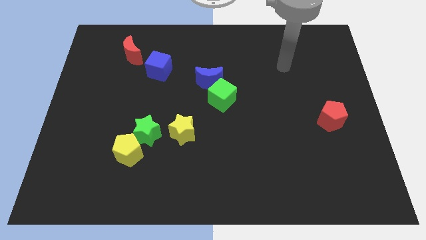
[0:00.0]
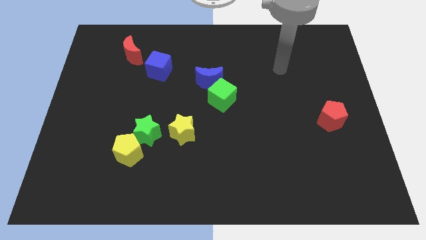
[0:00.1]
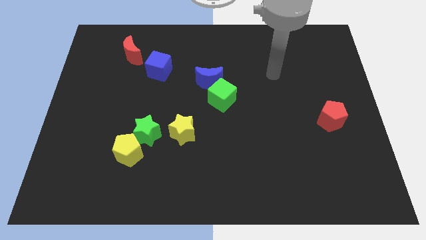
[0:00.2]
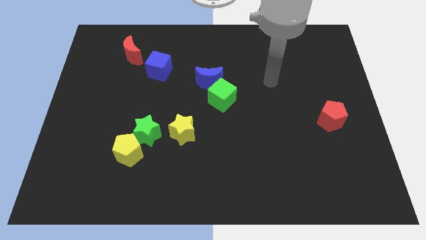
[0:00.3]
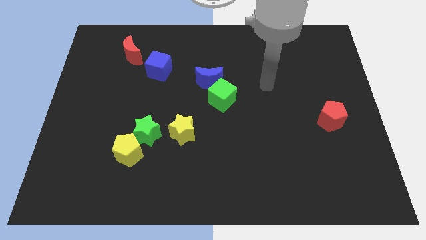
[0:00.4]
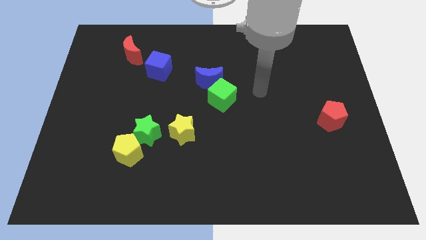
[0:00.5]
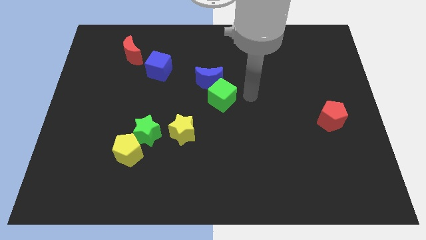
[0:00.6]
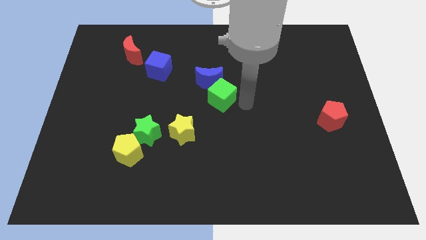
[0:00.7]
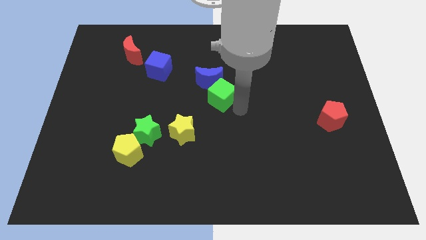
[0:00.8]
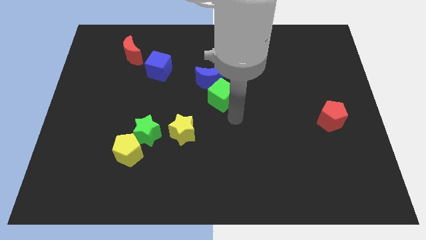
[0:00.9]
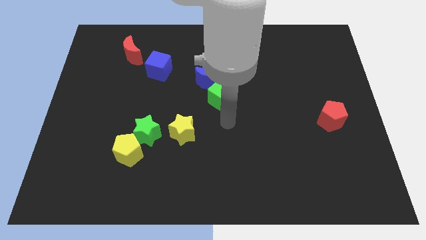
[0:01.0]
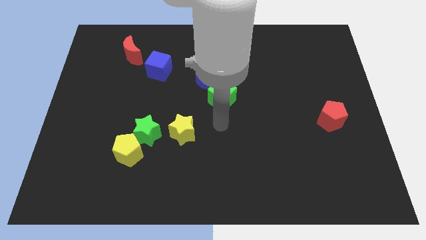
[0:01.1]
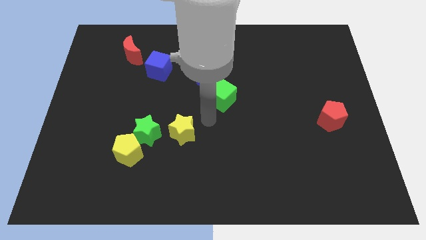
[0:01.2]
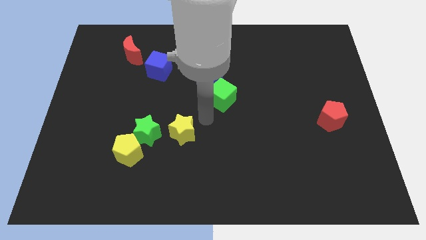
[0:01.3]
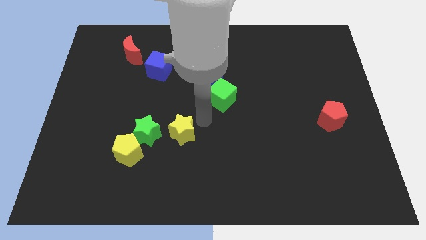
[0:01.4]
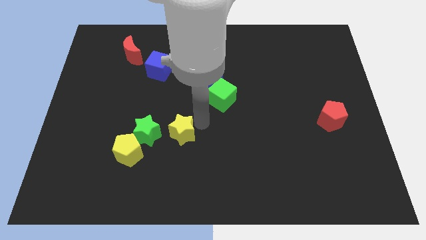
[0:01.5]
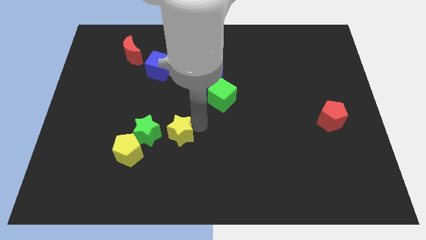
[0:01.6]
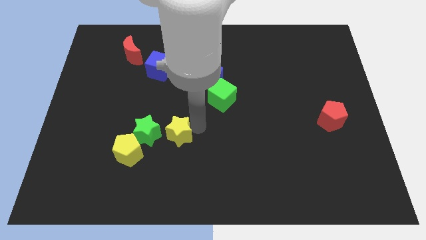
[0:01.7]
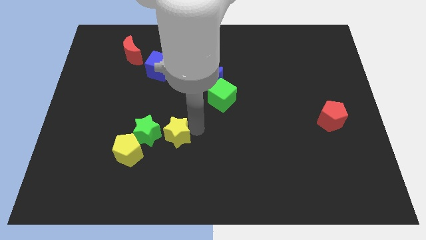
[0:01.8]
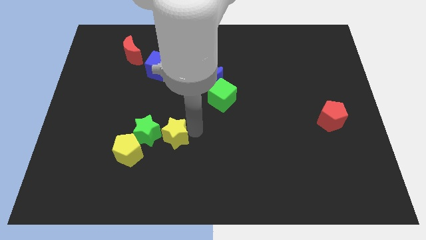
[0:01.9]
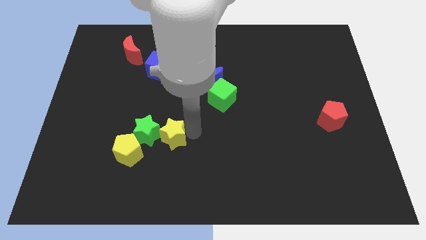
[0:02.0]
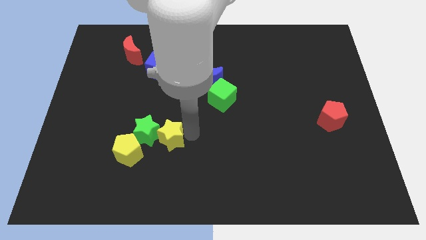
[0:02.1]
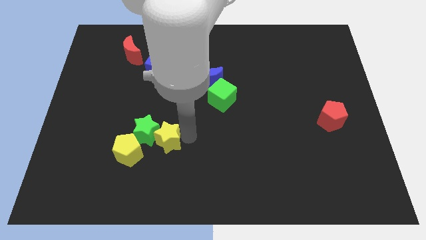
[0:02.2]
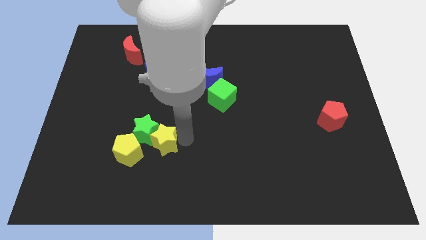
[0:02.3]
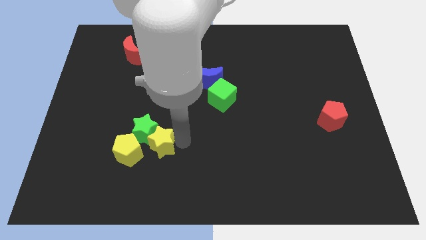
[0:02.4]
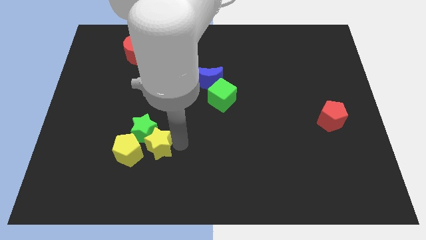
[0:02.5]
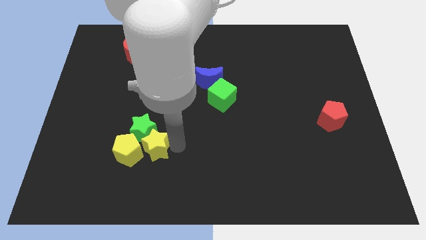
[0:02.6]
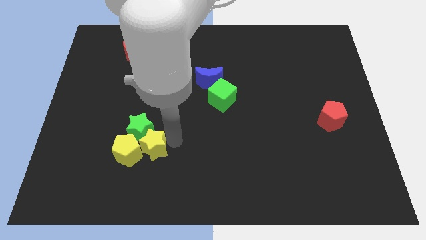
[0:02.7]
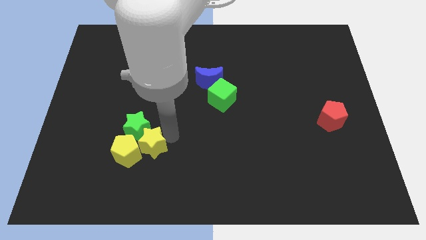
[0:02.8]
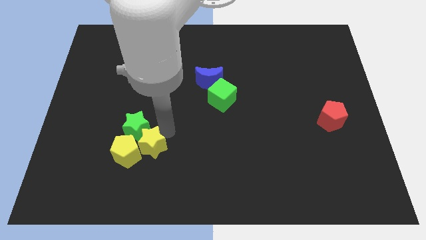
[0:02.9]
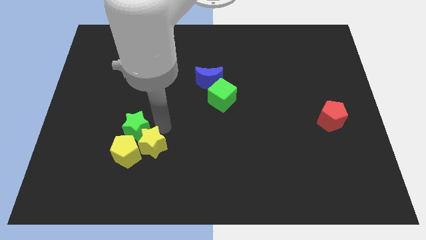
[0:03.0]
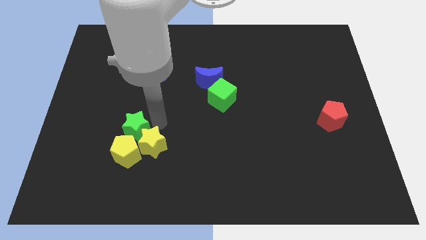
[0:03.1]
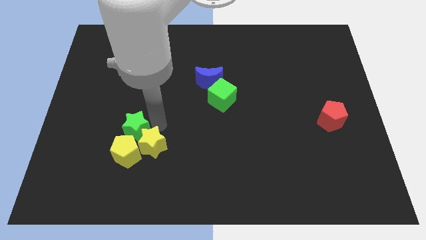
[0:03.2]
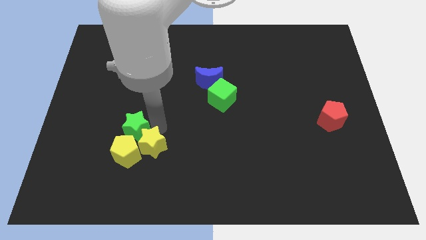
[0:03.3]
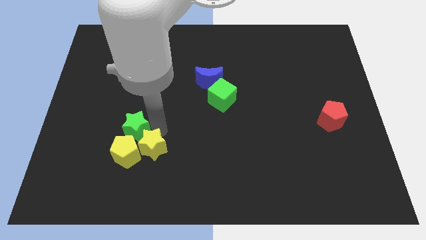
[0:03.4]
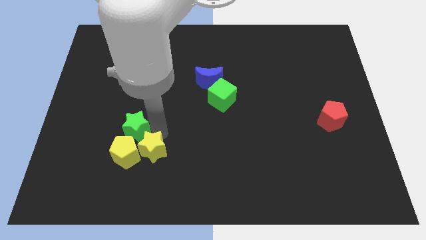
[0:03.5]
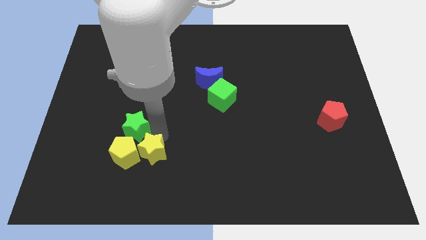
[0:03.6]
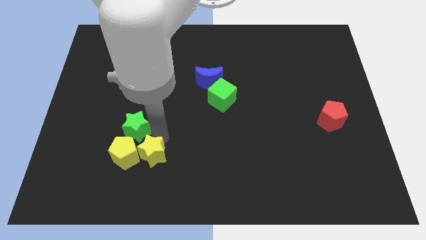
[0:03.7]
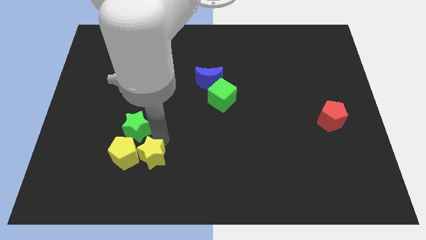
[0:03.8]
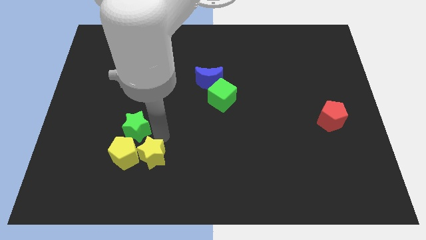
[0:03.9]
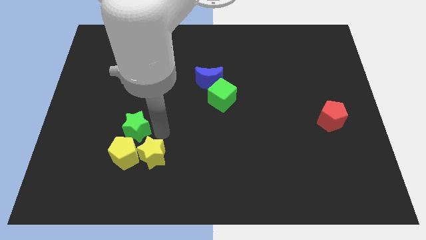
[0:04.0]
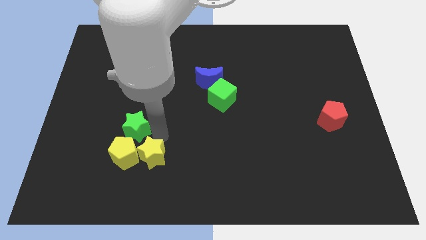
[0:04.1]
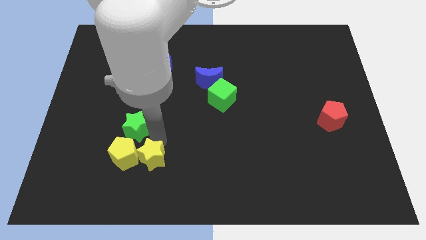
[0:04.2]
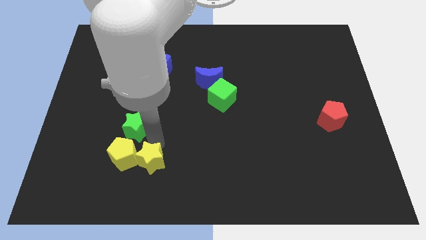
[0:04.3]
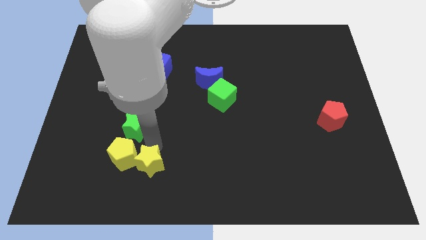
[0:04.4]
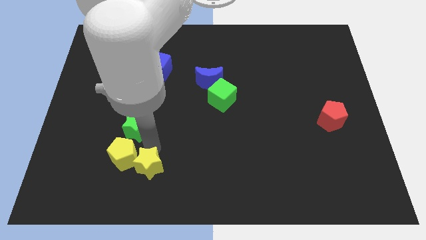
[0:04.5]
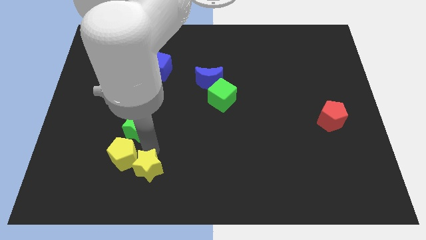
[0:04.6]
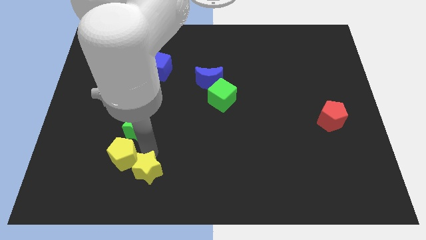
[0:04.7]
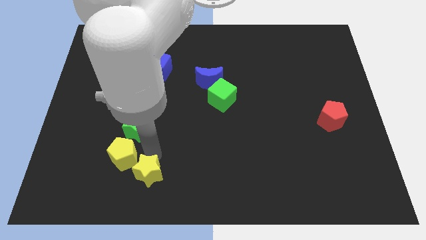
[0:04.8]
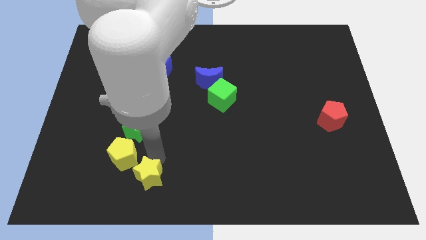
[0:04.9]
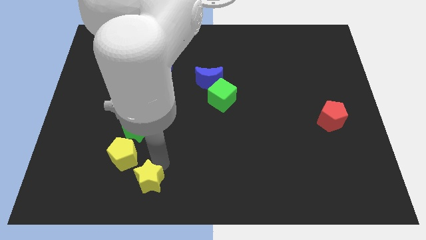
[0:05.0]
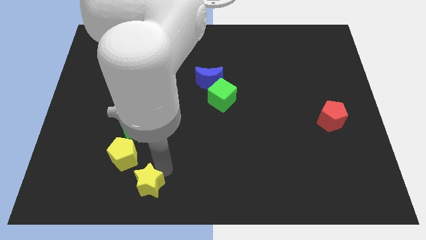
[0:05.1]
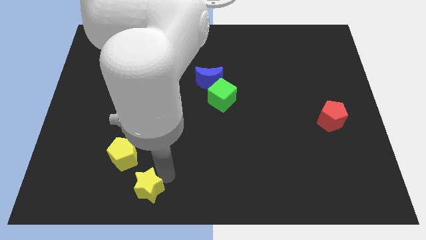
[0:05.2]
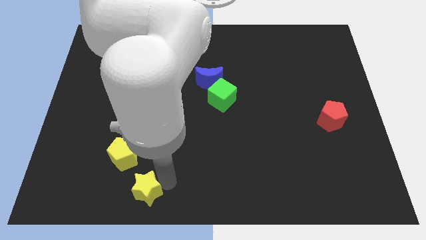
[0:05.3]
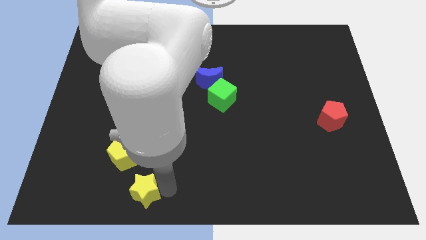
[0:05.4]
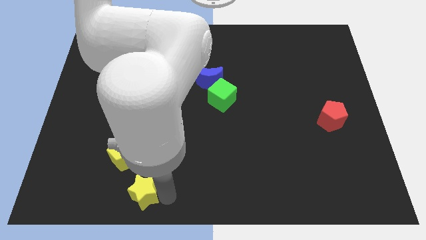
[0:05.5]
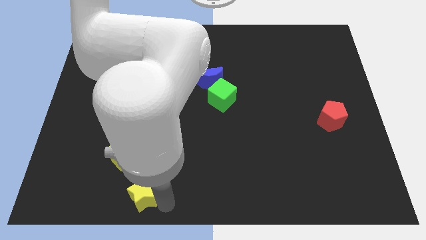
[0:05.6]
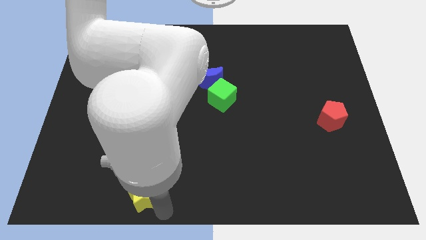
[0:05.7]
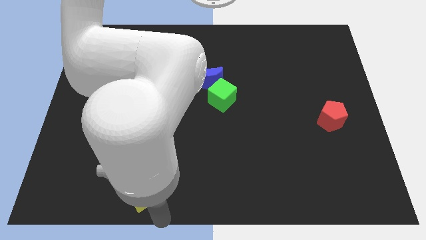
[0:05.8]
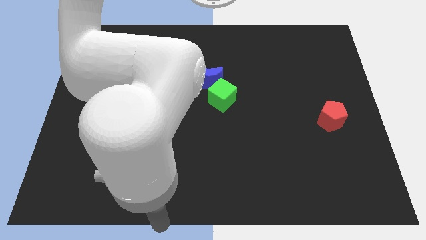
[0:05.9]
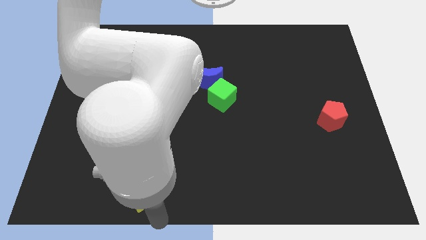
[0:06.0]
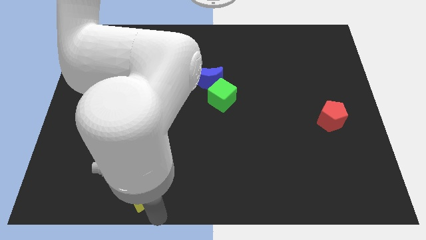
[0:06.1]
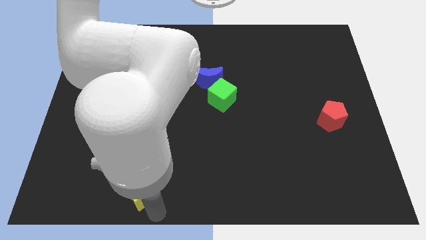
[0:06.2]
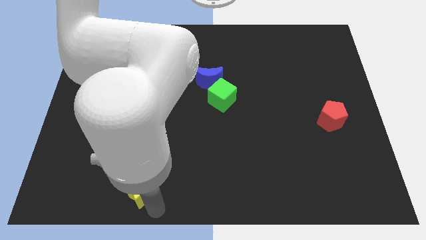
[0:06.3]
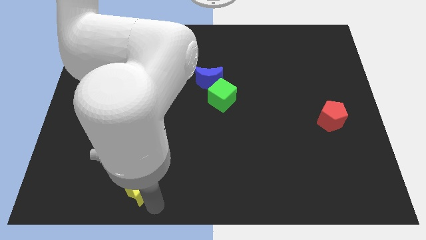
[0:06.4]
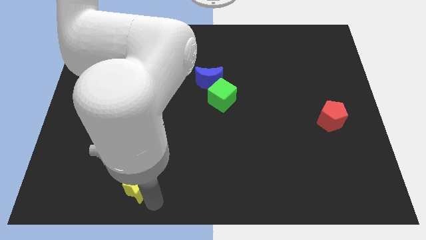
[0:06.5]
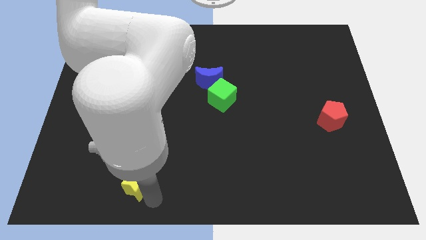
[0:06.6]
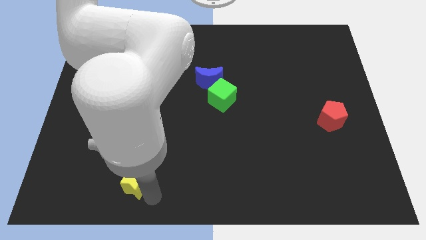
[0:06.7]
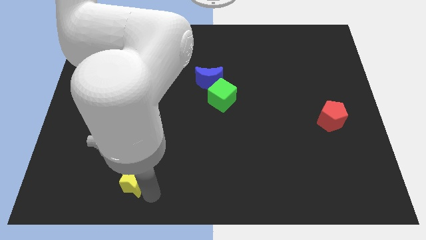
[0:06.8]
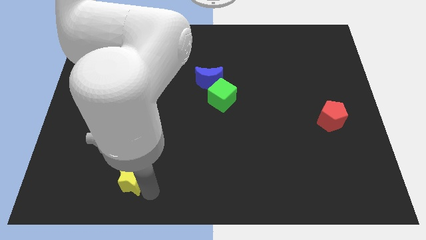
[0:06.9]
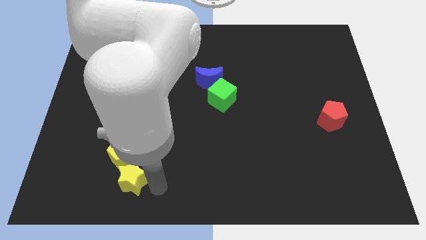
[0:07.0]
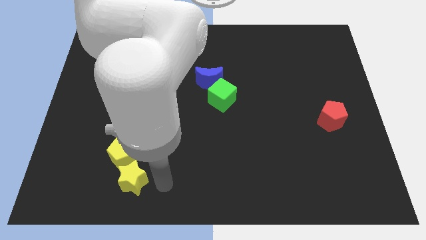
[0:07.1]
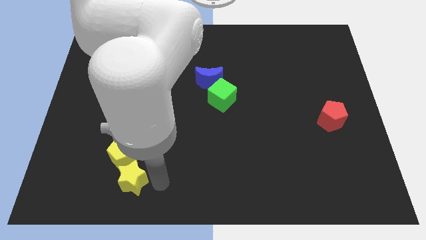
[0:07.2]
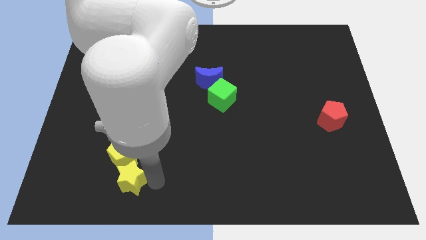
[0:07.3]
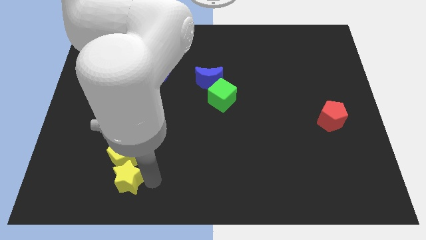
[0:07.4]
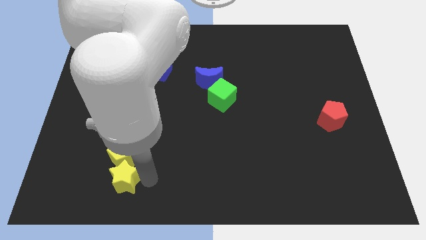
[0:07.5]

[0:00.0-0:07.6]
put the yellow star to the bottom left side of the yellow pentagon
